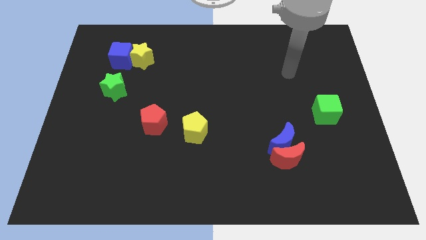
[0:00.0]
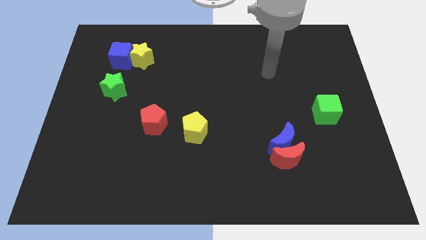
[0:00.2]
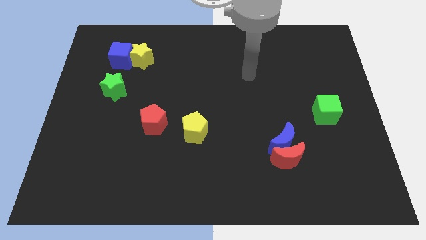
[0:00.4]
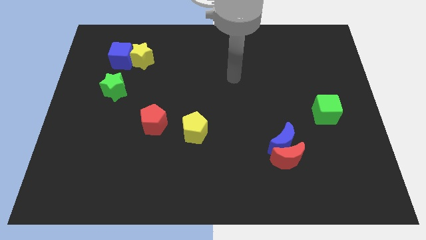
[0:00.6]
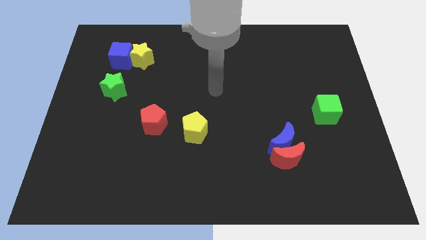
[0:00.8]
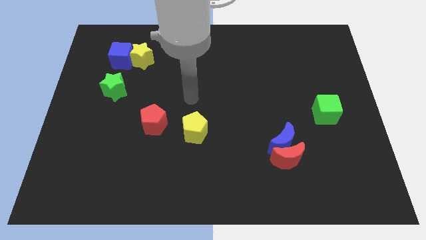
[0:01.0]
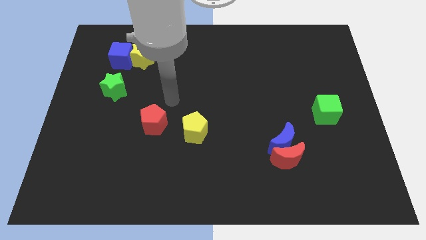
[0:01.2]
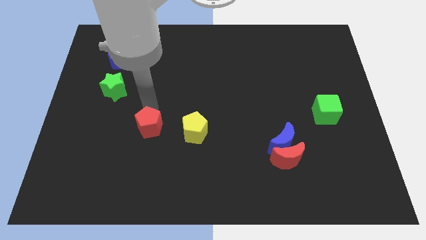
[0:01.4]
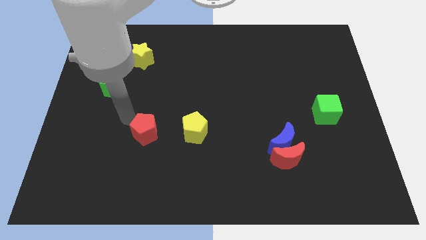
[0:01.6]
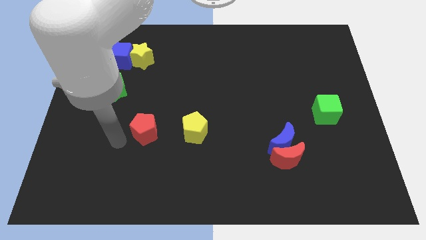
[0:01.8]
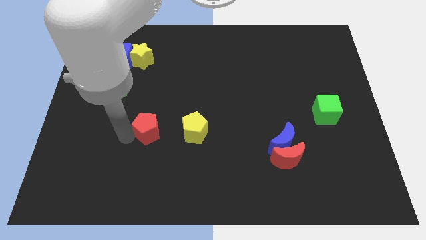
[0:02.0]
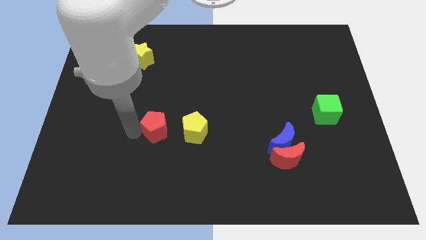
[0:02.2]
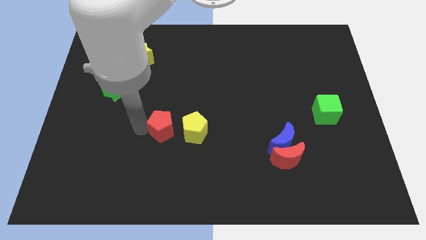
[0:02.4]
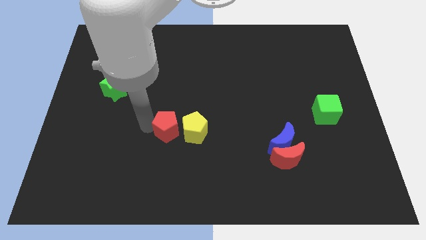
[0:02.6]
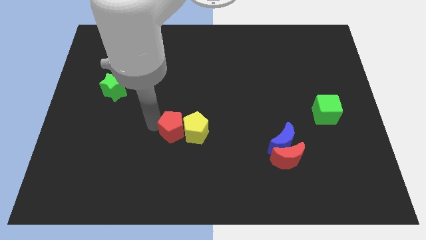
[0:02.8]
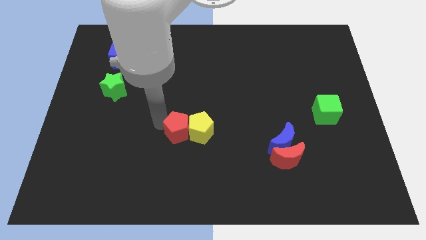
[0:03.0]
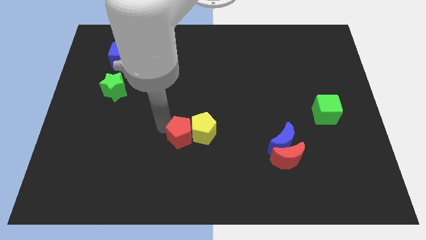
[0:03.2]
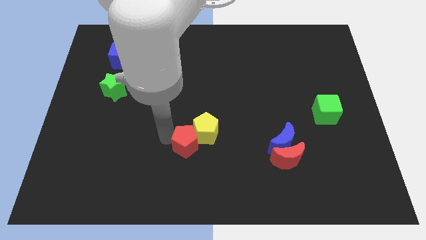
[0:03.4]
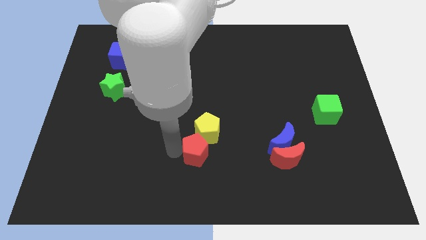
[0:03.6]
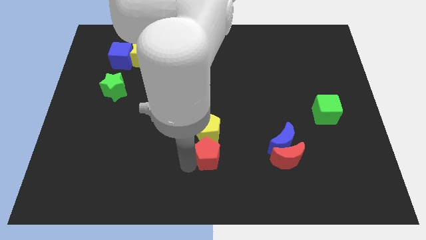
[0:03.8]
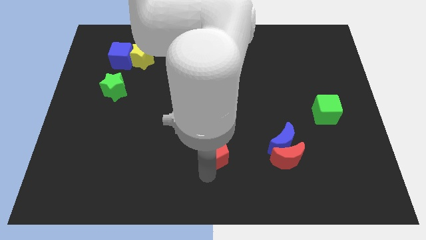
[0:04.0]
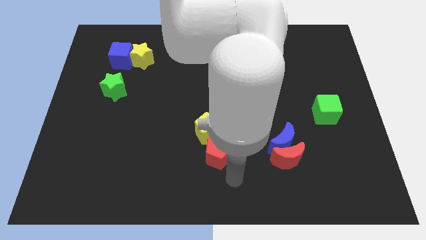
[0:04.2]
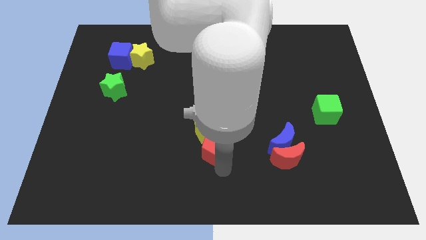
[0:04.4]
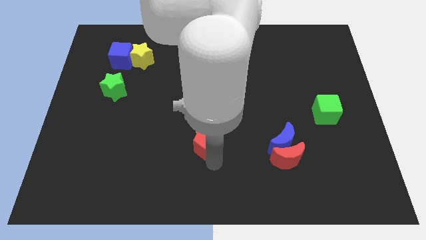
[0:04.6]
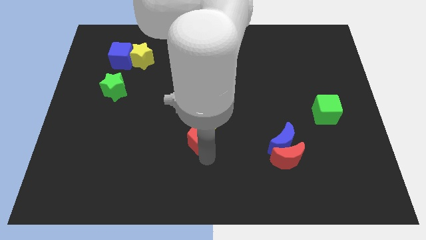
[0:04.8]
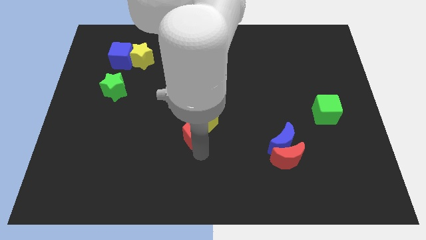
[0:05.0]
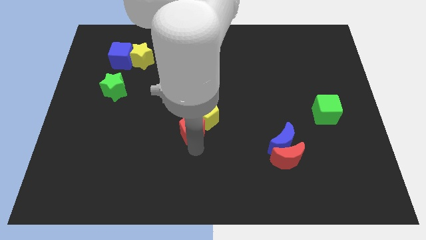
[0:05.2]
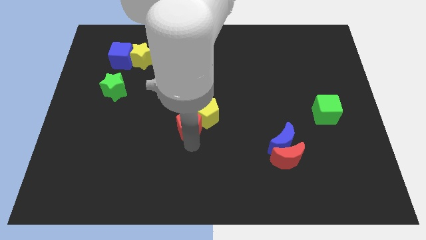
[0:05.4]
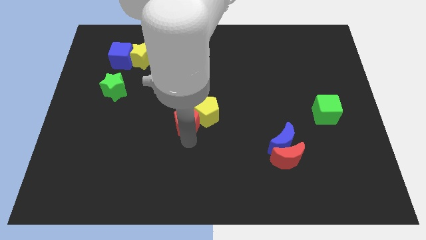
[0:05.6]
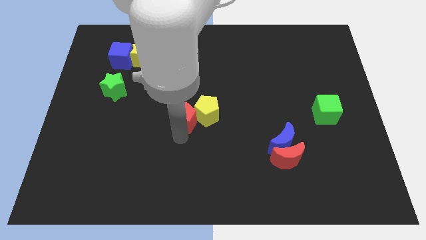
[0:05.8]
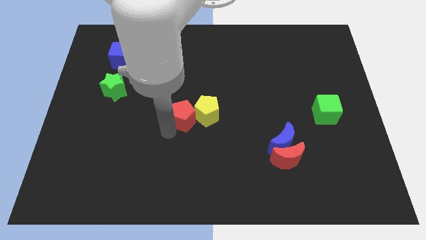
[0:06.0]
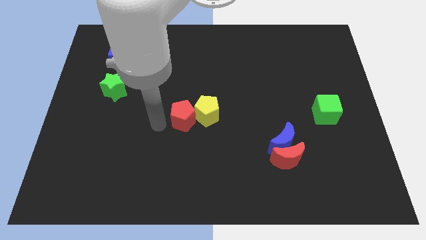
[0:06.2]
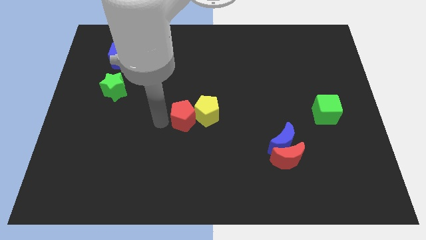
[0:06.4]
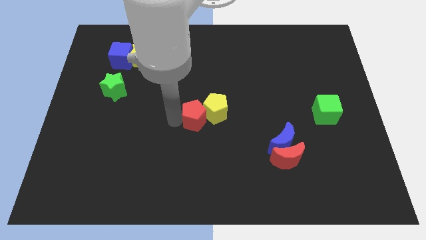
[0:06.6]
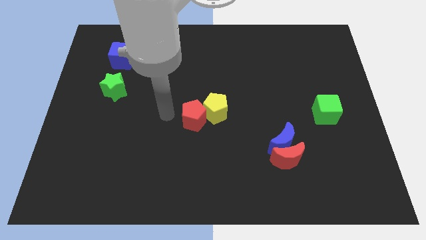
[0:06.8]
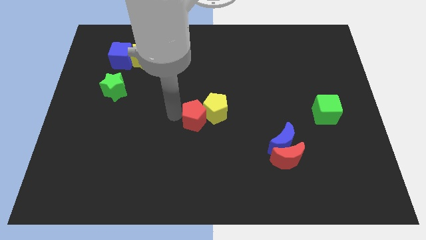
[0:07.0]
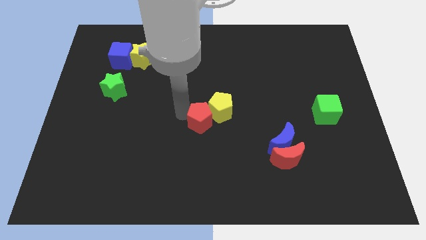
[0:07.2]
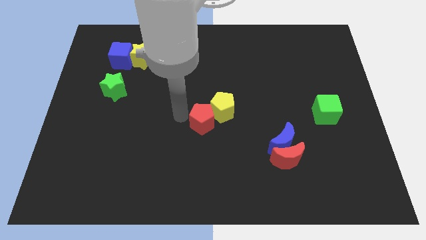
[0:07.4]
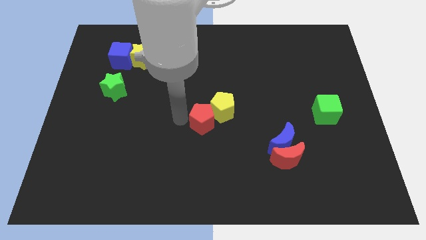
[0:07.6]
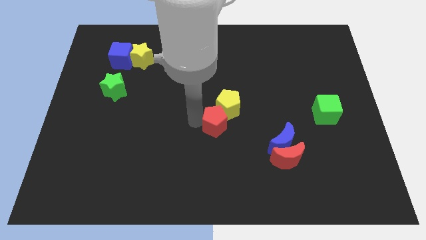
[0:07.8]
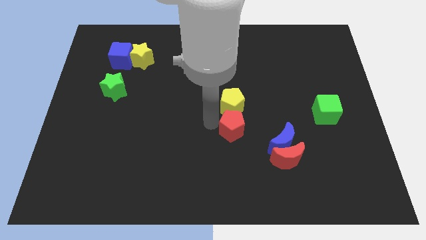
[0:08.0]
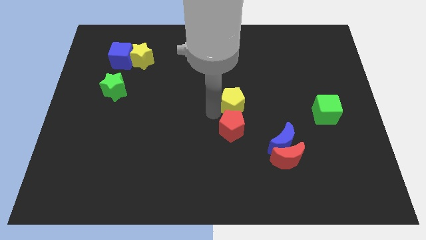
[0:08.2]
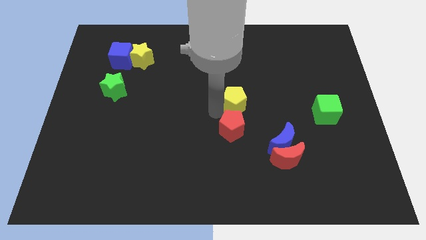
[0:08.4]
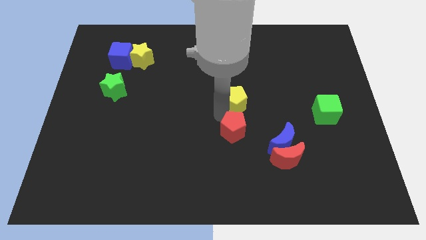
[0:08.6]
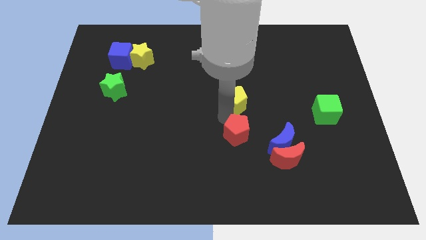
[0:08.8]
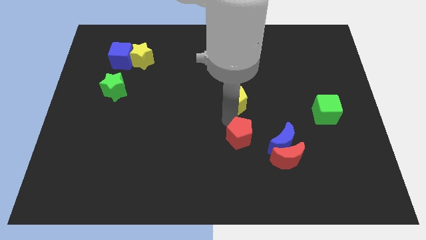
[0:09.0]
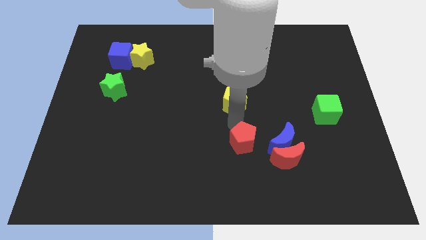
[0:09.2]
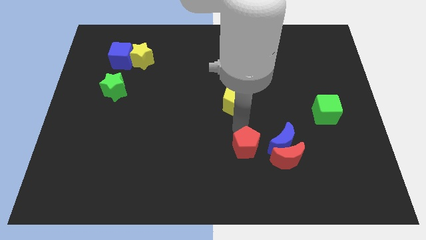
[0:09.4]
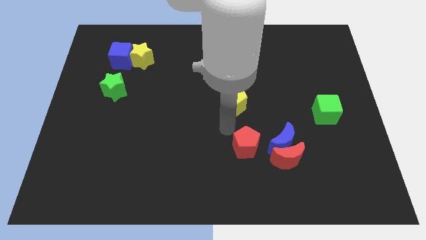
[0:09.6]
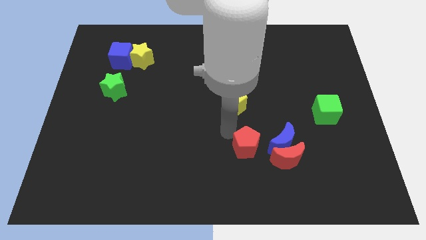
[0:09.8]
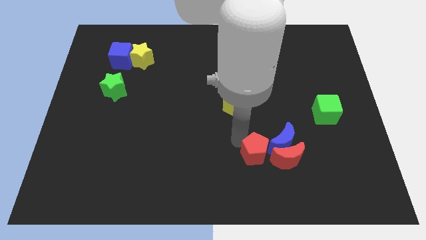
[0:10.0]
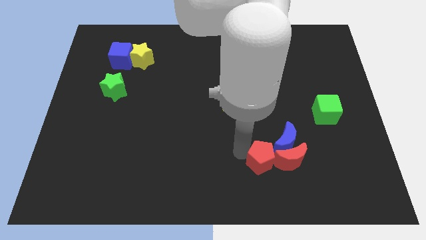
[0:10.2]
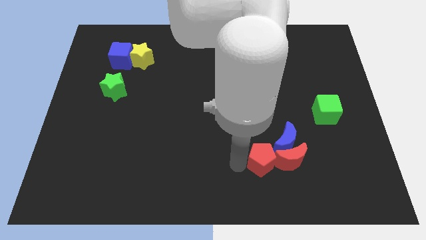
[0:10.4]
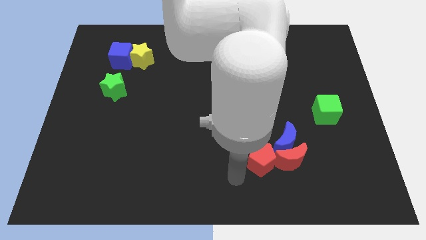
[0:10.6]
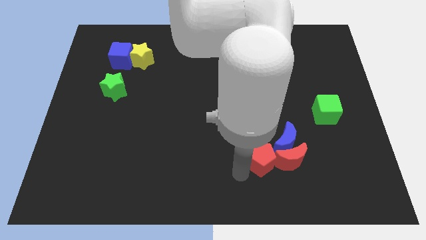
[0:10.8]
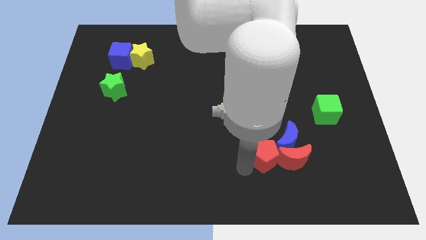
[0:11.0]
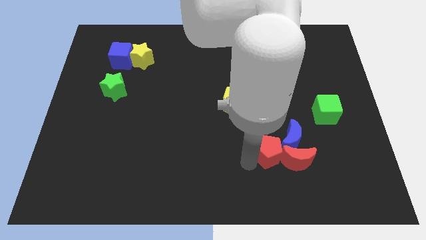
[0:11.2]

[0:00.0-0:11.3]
move the red pentagon towards the blue moon

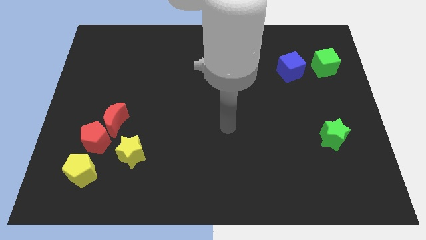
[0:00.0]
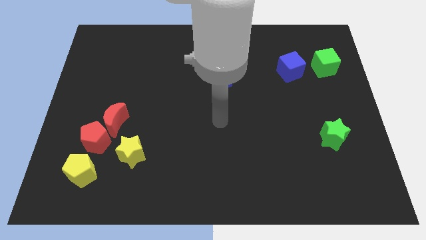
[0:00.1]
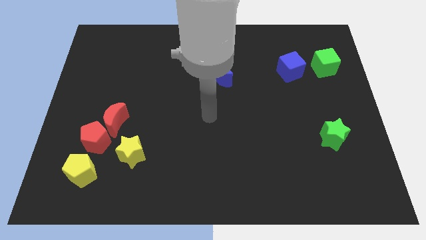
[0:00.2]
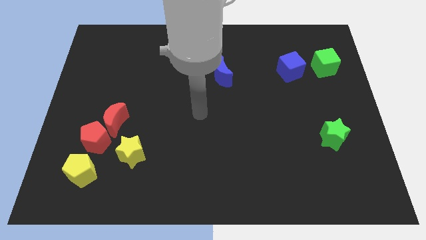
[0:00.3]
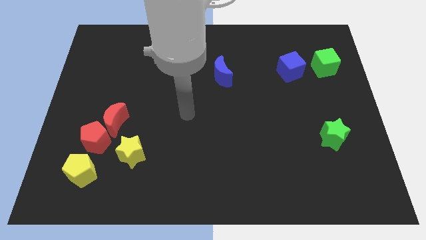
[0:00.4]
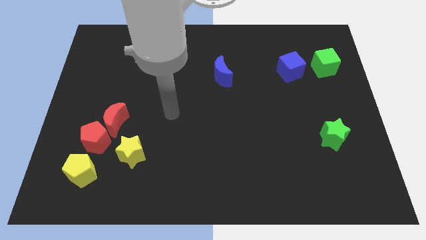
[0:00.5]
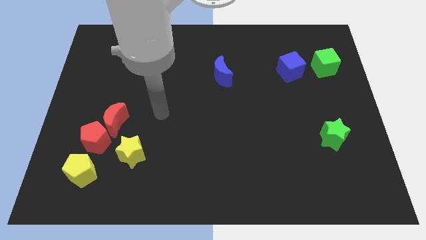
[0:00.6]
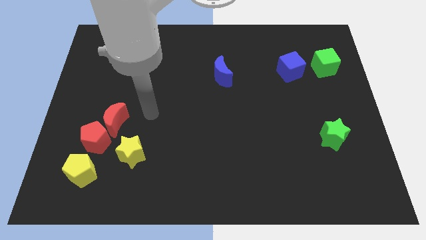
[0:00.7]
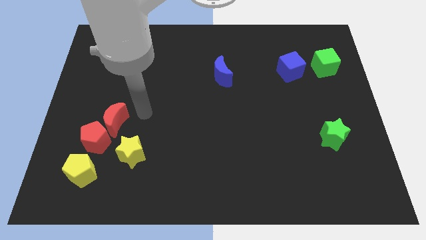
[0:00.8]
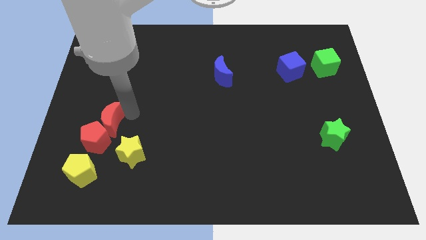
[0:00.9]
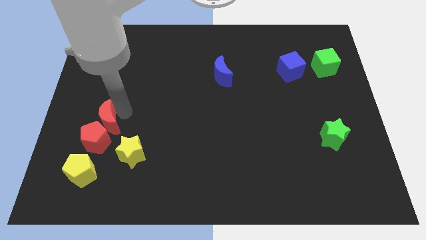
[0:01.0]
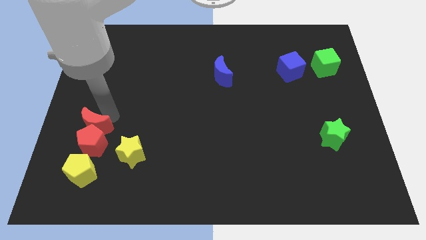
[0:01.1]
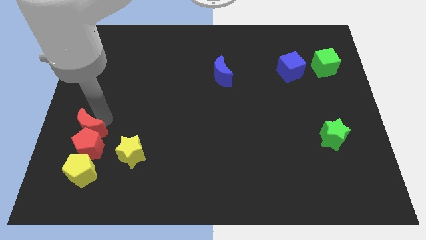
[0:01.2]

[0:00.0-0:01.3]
put the red pentagon towards the yellow pentagon

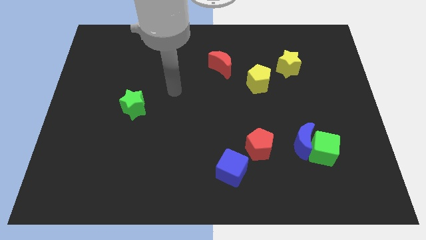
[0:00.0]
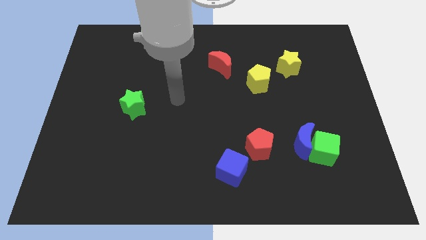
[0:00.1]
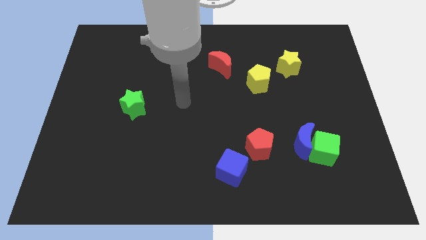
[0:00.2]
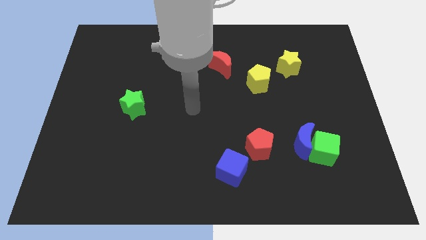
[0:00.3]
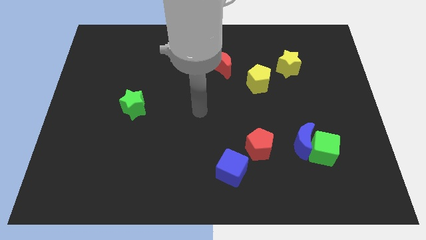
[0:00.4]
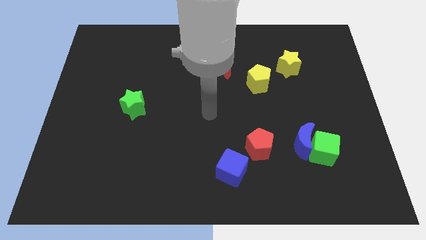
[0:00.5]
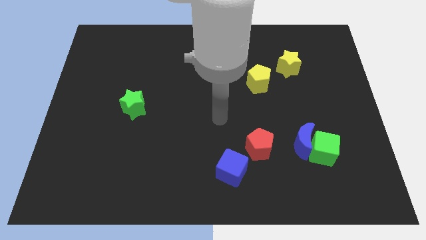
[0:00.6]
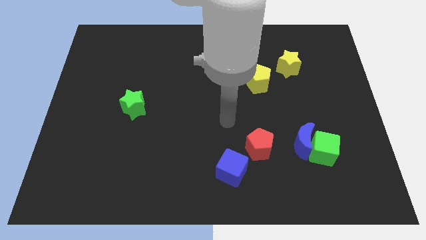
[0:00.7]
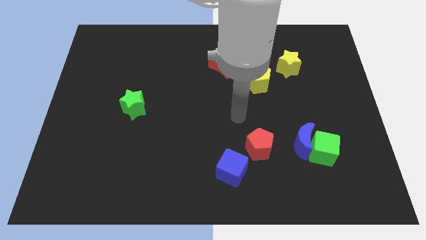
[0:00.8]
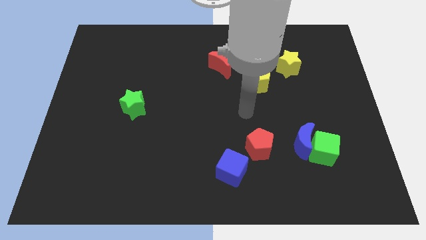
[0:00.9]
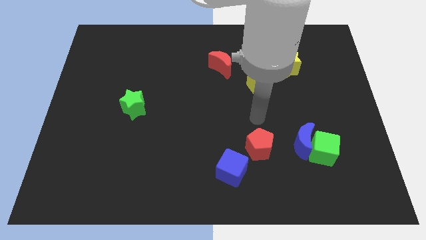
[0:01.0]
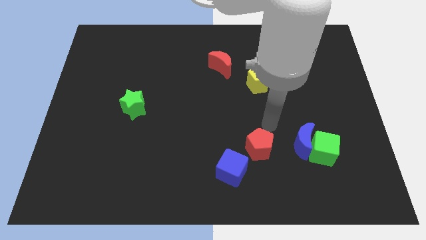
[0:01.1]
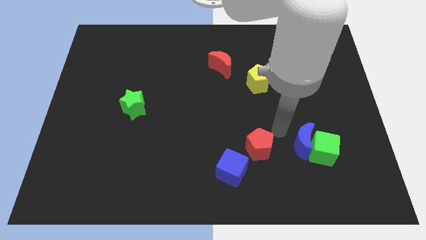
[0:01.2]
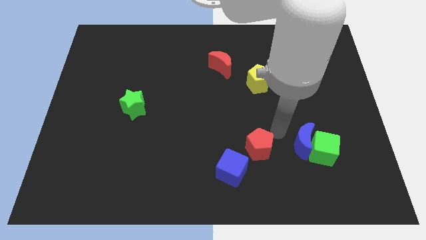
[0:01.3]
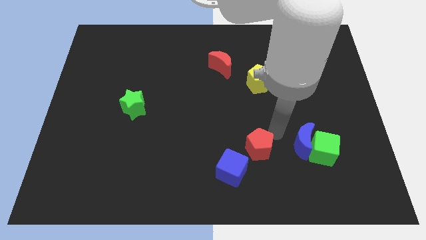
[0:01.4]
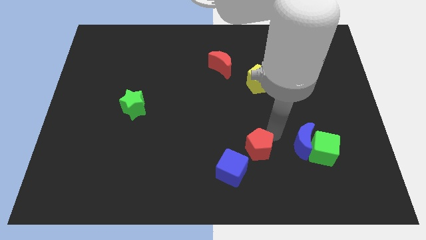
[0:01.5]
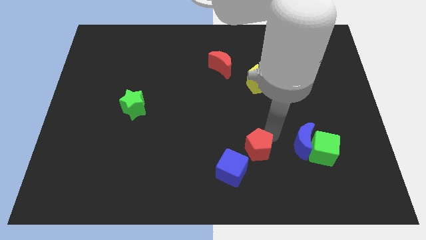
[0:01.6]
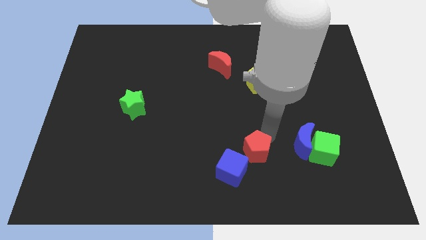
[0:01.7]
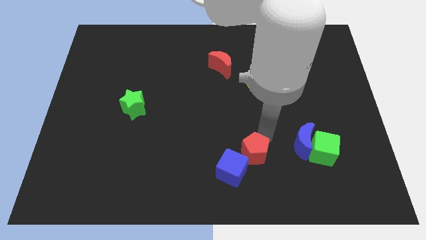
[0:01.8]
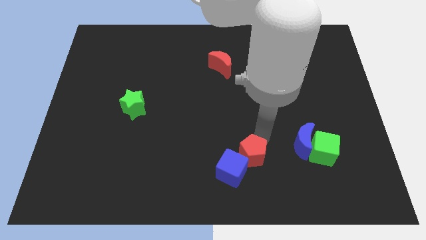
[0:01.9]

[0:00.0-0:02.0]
put the red pentagon towards the blue cube
